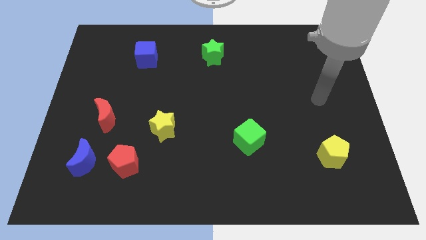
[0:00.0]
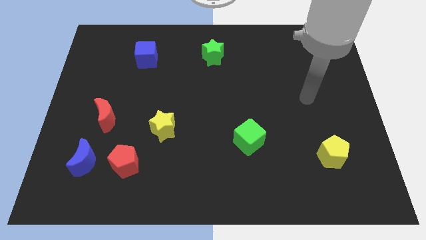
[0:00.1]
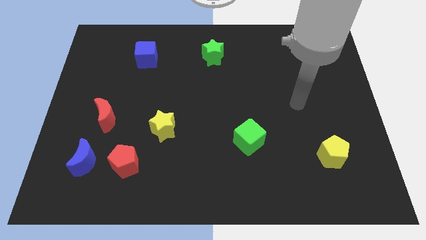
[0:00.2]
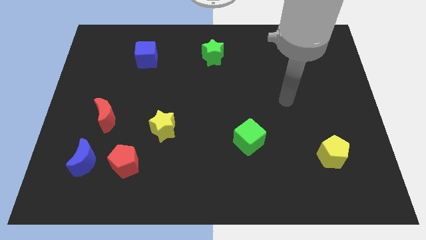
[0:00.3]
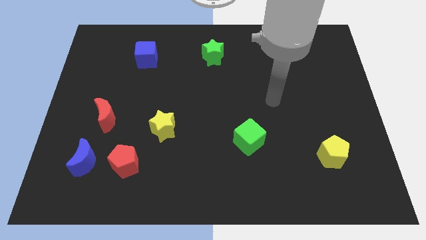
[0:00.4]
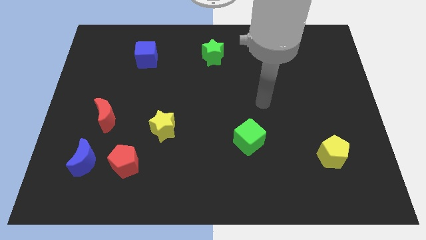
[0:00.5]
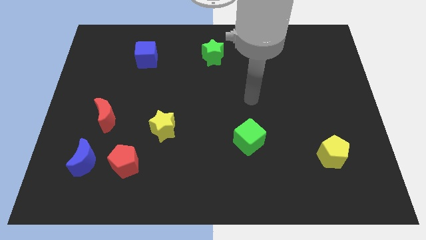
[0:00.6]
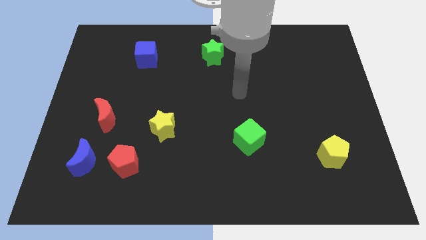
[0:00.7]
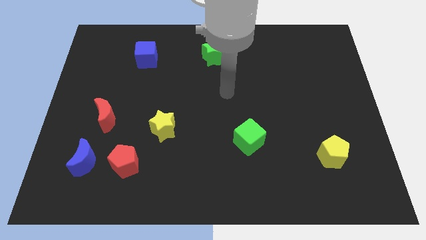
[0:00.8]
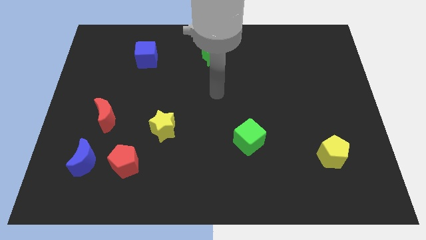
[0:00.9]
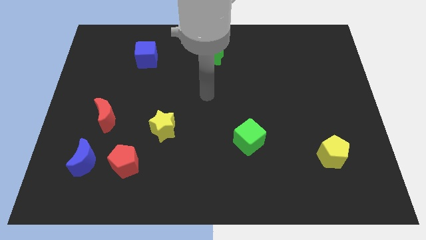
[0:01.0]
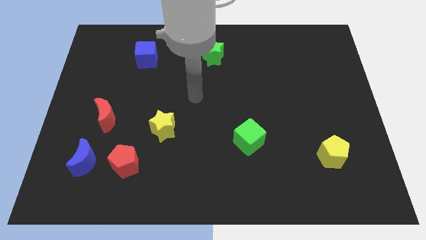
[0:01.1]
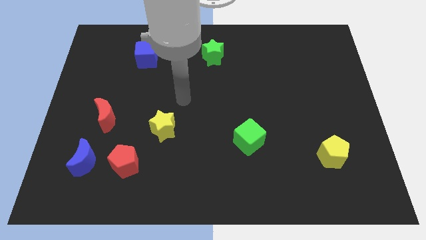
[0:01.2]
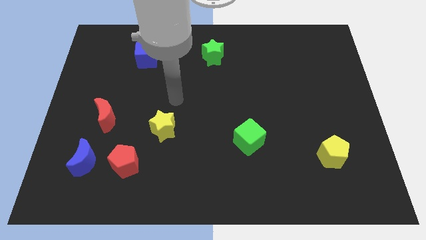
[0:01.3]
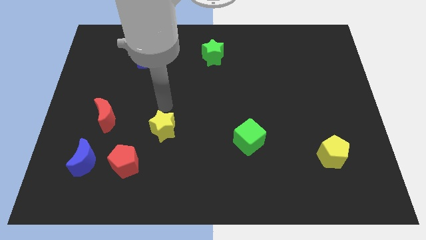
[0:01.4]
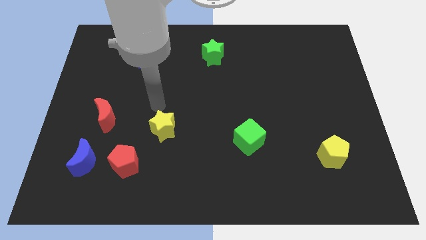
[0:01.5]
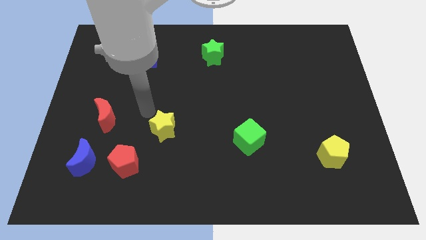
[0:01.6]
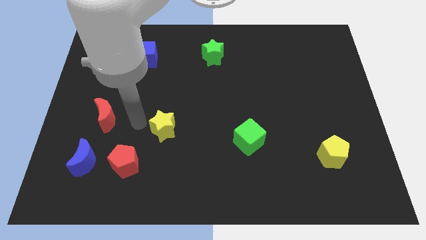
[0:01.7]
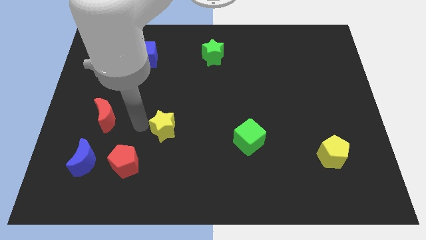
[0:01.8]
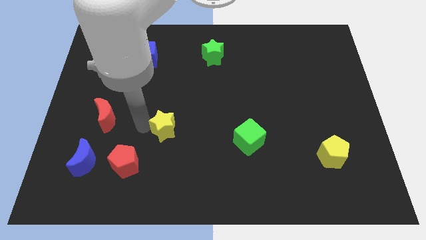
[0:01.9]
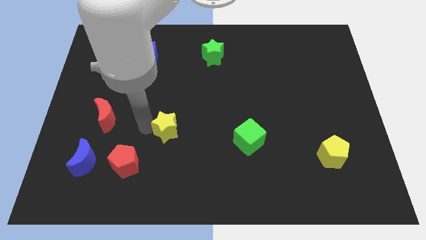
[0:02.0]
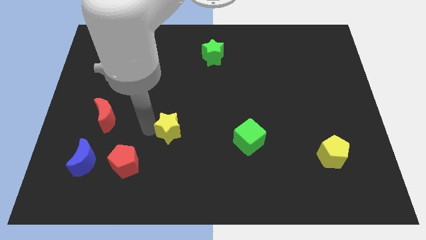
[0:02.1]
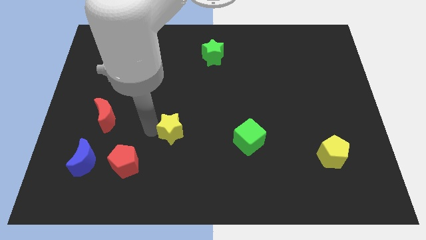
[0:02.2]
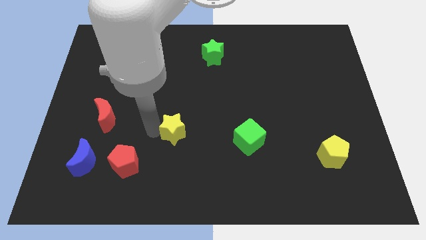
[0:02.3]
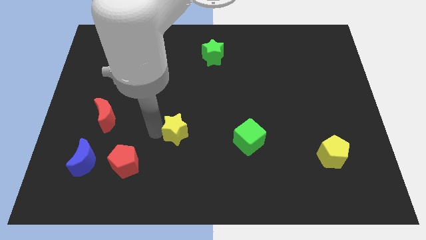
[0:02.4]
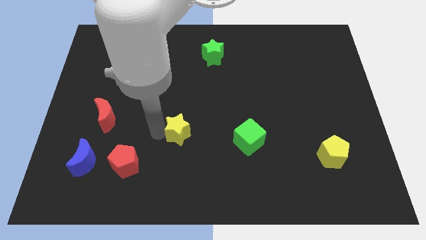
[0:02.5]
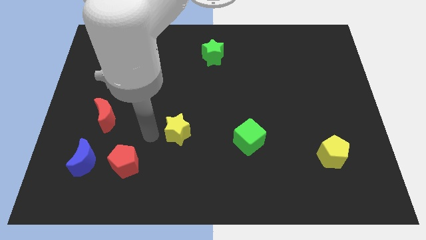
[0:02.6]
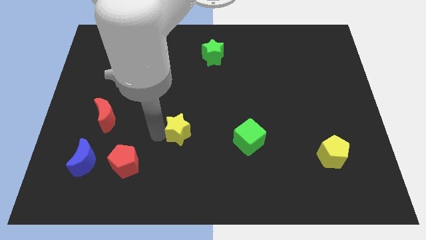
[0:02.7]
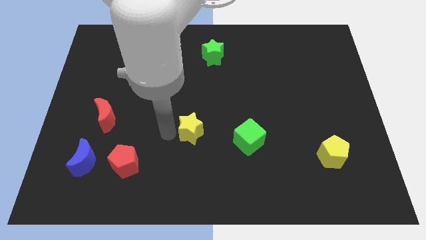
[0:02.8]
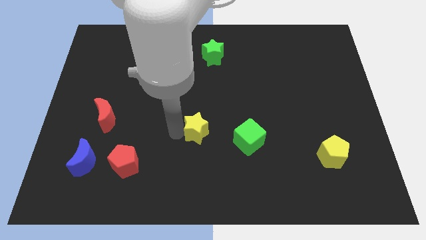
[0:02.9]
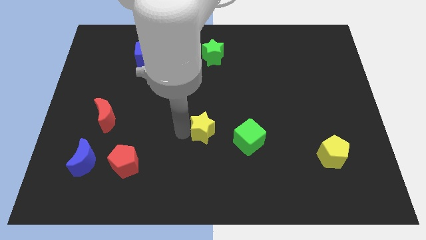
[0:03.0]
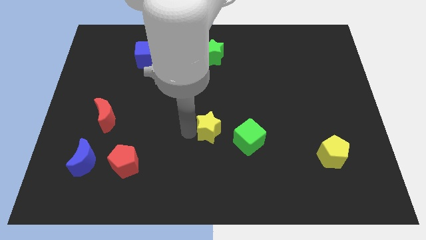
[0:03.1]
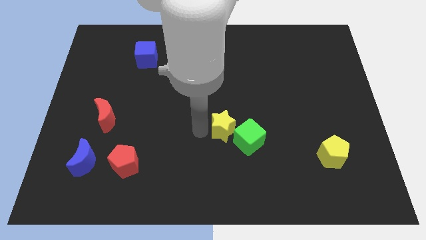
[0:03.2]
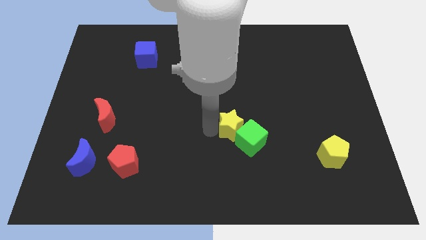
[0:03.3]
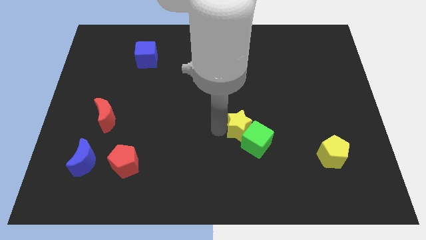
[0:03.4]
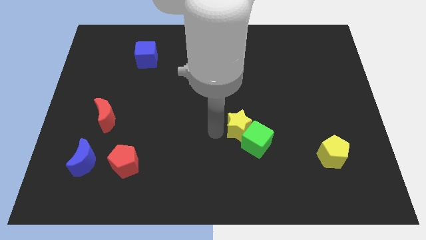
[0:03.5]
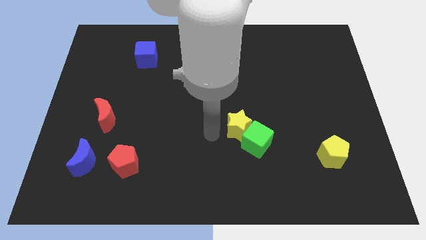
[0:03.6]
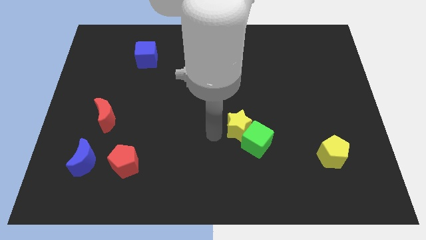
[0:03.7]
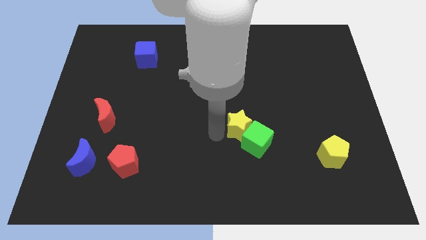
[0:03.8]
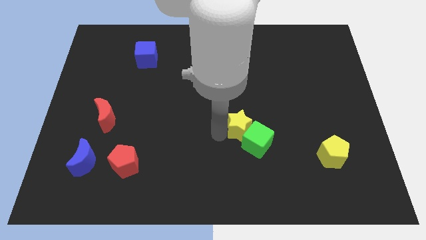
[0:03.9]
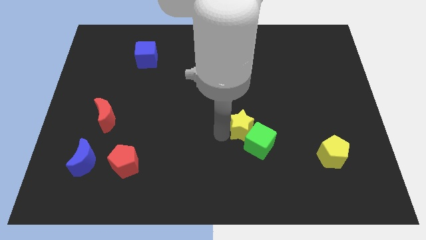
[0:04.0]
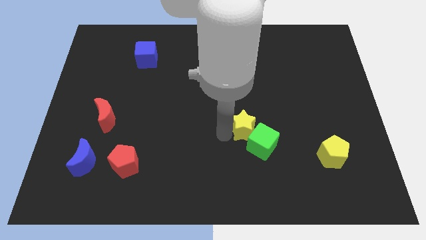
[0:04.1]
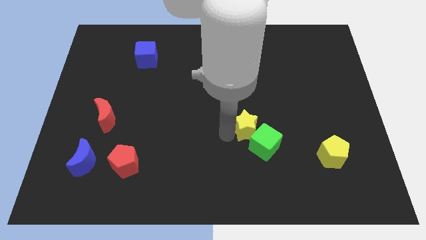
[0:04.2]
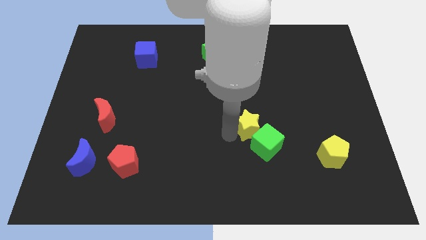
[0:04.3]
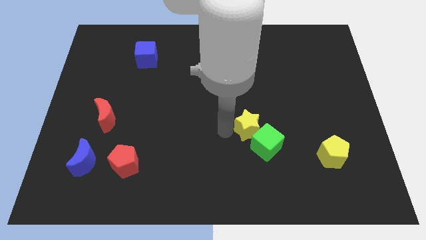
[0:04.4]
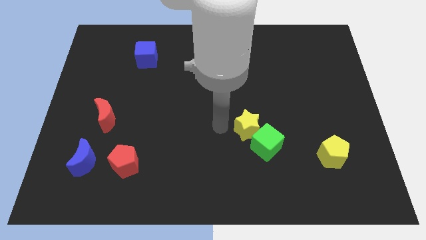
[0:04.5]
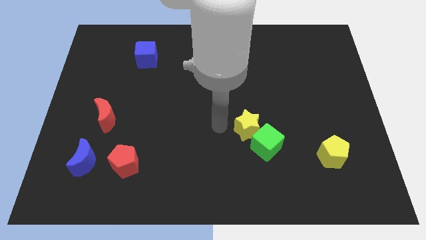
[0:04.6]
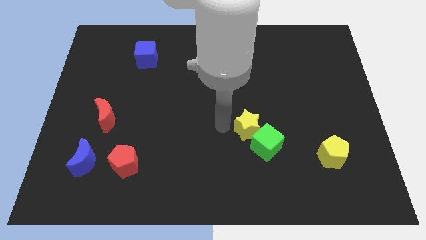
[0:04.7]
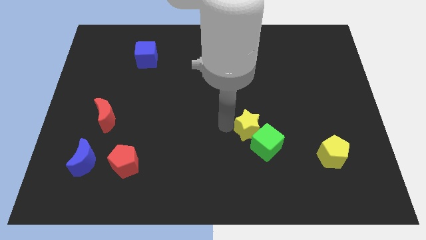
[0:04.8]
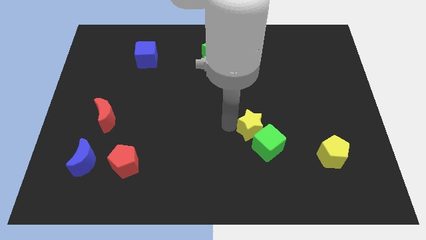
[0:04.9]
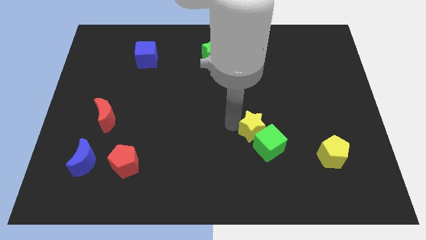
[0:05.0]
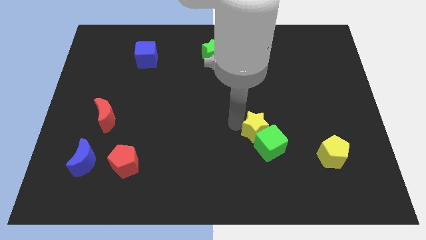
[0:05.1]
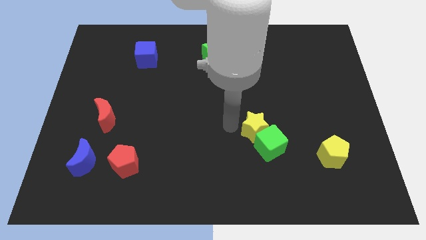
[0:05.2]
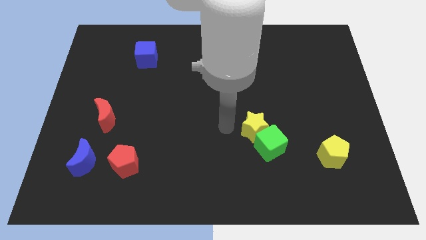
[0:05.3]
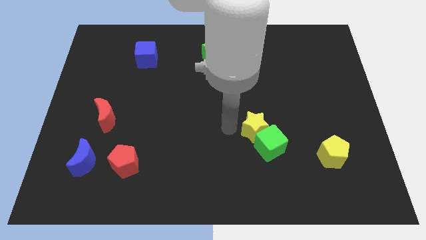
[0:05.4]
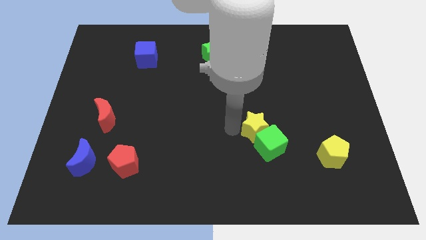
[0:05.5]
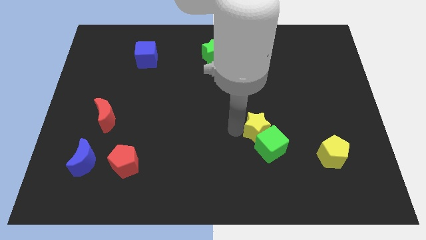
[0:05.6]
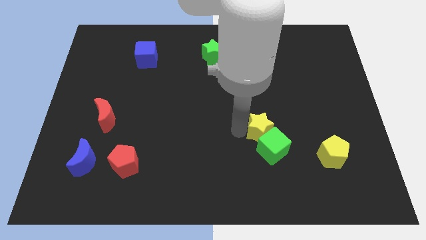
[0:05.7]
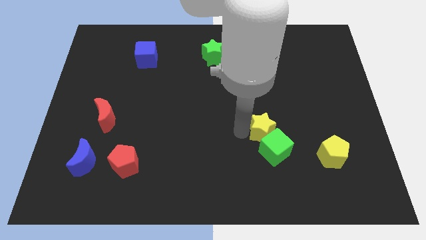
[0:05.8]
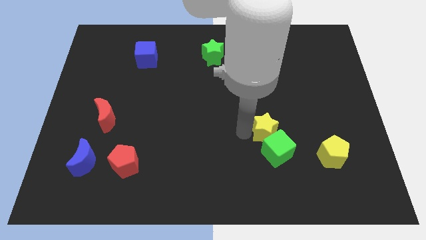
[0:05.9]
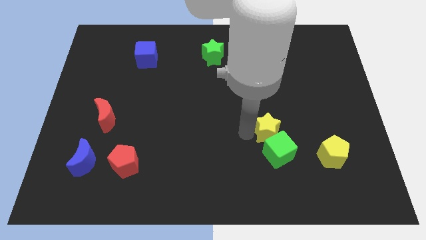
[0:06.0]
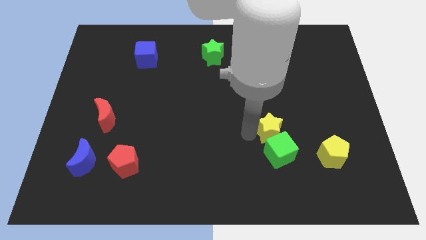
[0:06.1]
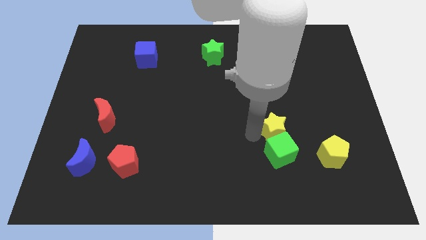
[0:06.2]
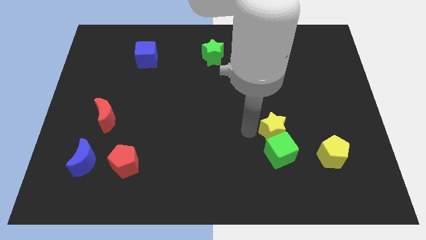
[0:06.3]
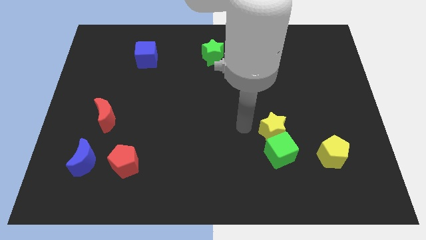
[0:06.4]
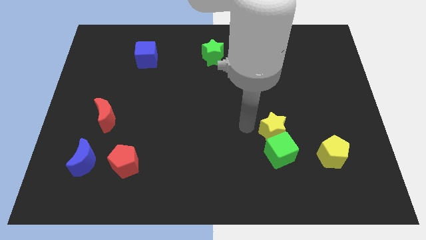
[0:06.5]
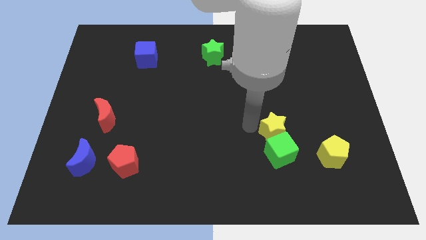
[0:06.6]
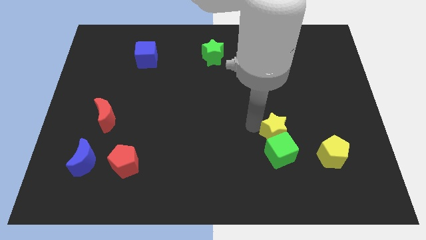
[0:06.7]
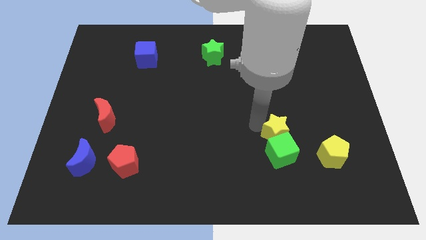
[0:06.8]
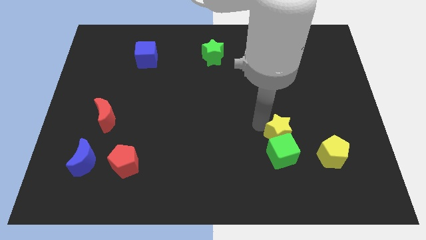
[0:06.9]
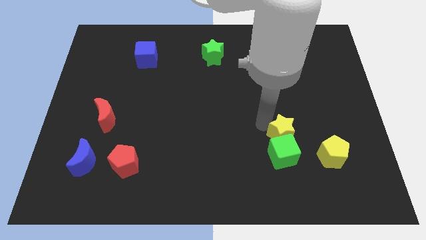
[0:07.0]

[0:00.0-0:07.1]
push the yellow star to the top left of the yellow pentagon
